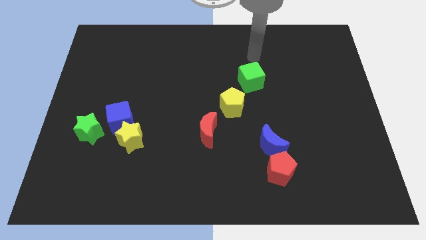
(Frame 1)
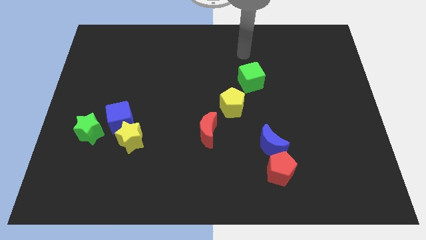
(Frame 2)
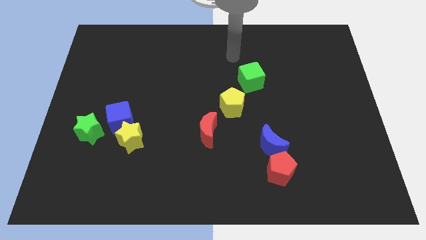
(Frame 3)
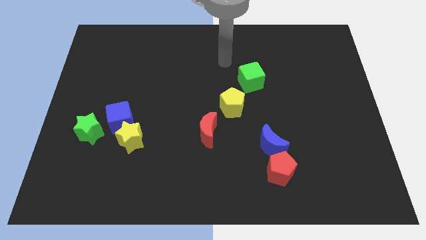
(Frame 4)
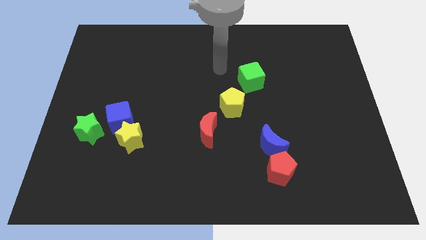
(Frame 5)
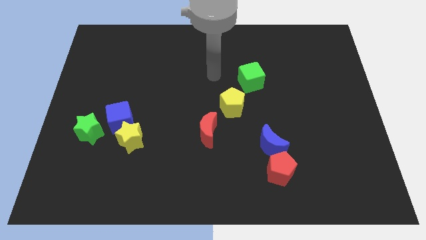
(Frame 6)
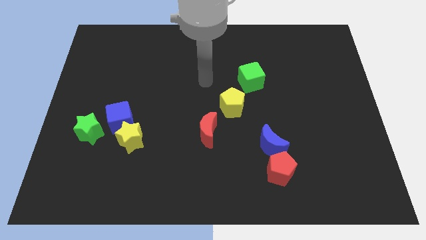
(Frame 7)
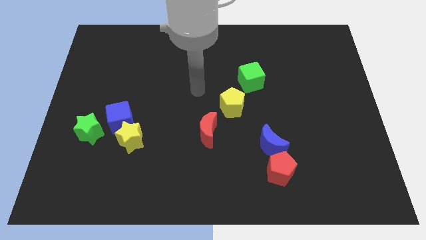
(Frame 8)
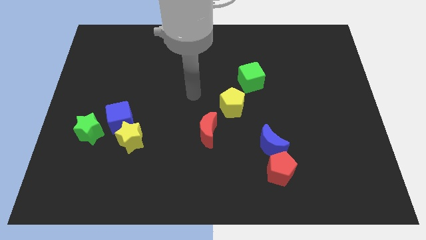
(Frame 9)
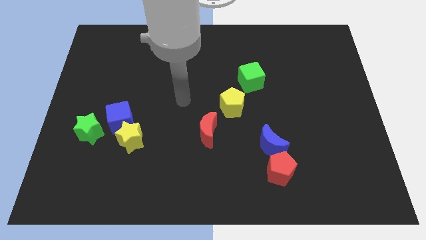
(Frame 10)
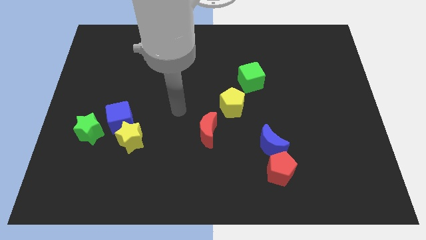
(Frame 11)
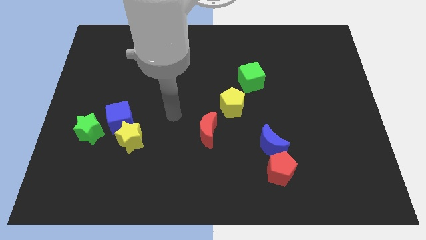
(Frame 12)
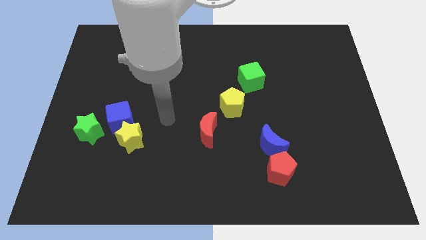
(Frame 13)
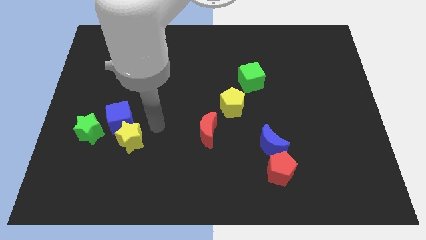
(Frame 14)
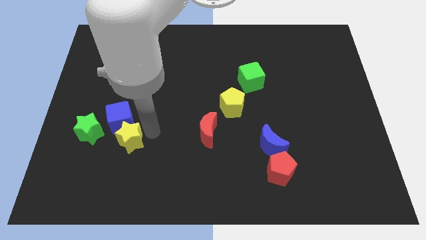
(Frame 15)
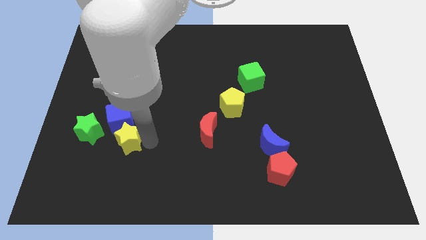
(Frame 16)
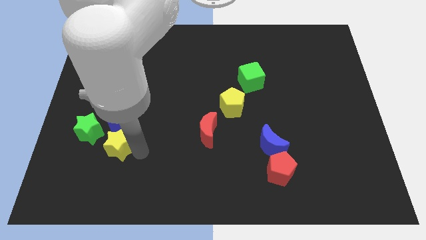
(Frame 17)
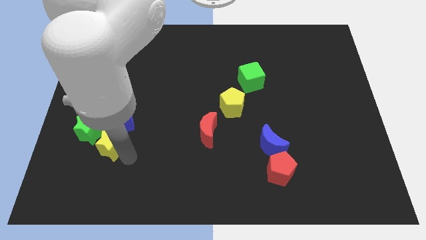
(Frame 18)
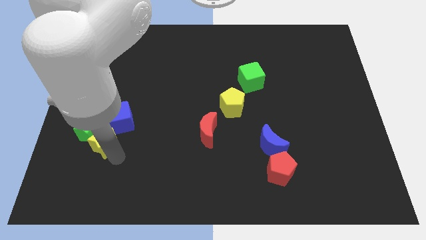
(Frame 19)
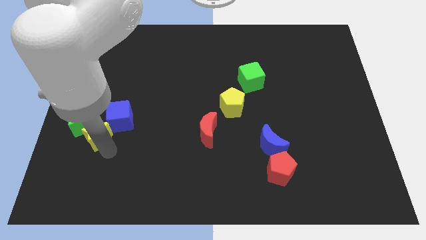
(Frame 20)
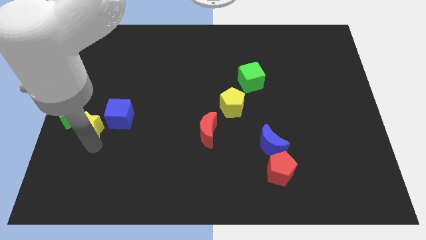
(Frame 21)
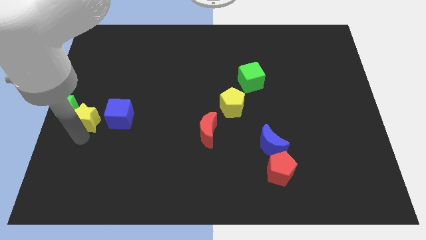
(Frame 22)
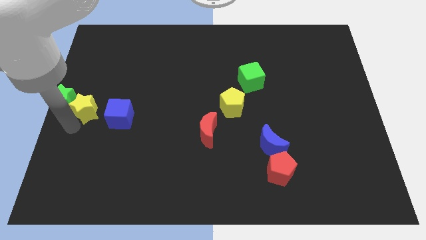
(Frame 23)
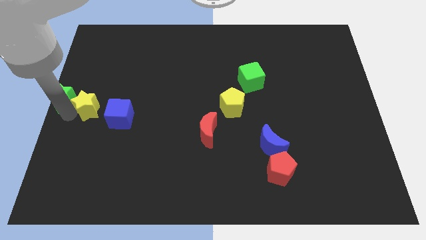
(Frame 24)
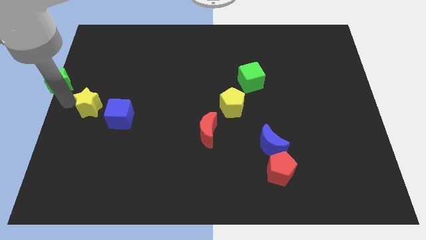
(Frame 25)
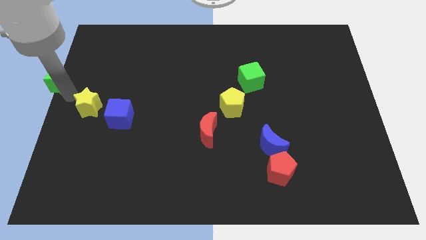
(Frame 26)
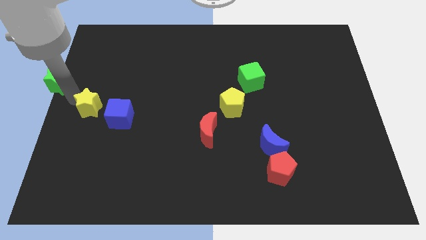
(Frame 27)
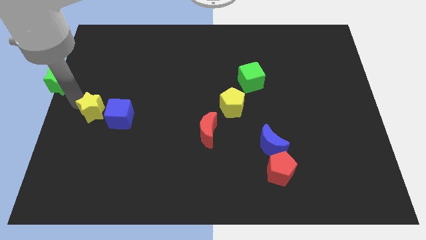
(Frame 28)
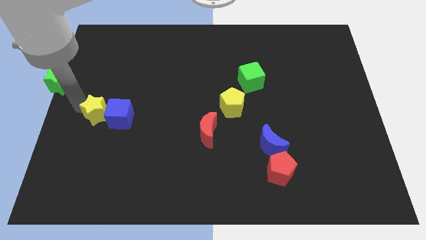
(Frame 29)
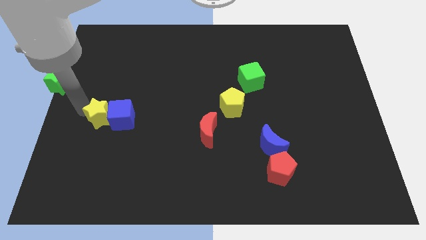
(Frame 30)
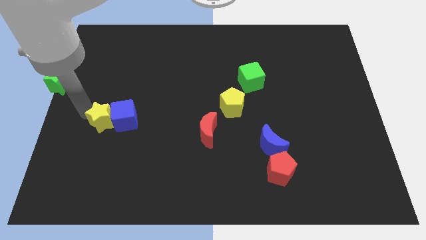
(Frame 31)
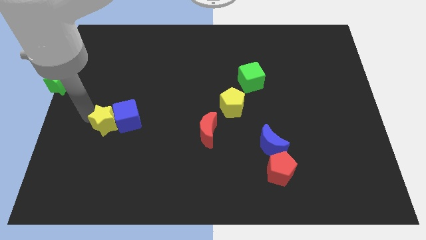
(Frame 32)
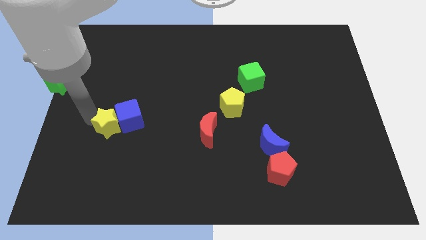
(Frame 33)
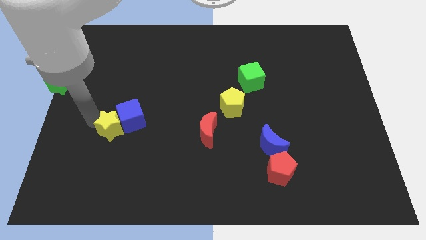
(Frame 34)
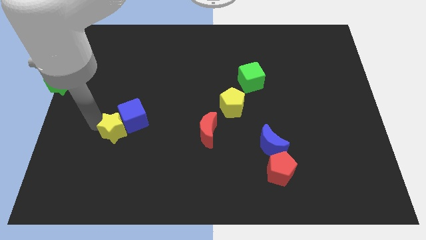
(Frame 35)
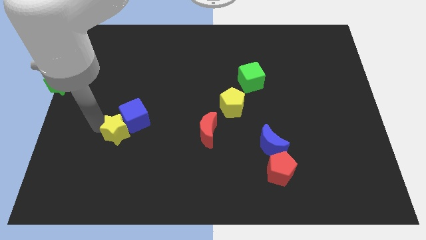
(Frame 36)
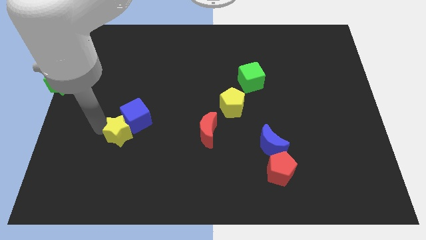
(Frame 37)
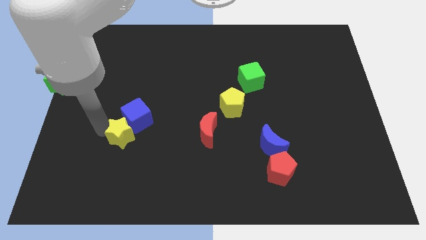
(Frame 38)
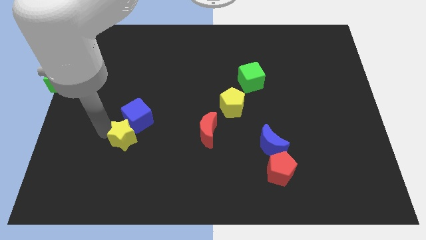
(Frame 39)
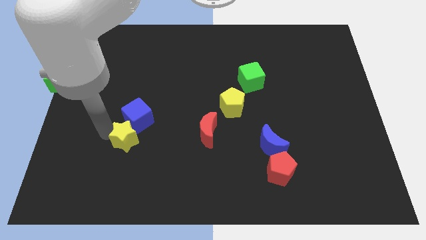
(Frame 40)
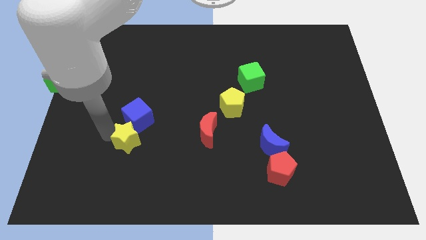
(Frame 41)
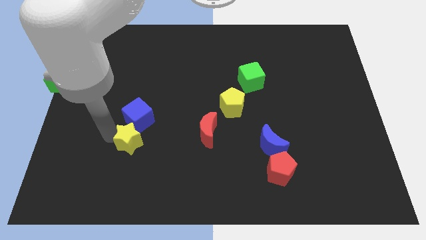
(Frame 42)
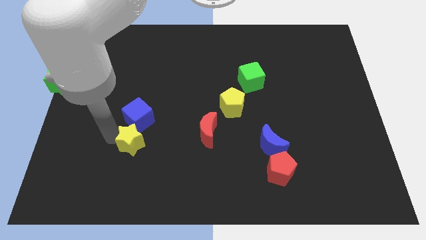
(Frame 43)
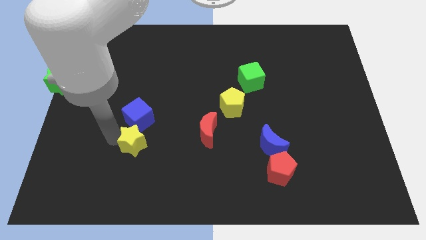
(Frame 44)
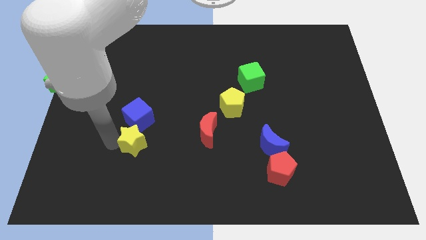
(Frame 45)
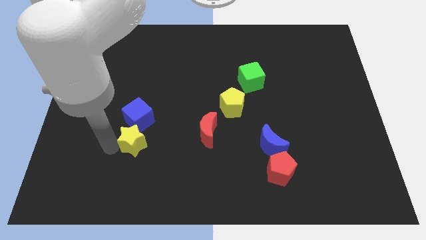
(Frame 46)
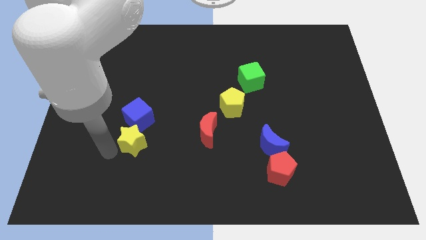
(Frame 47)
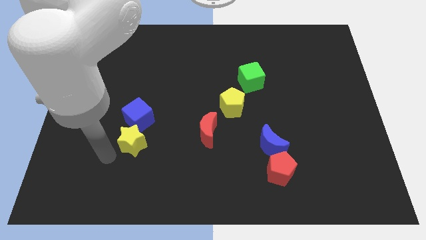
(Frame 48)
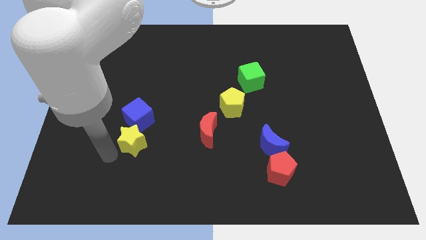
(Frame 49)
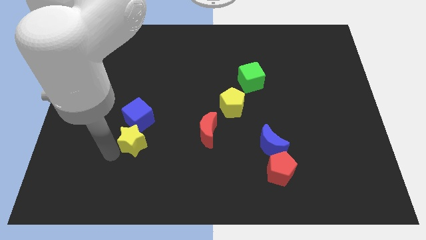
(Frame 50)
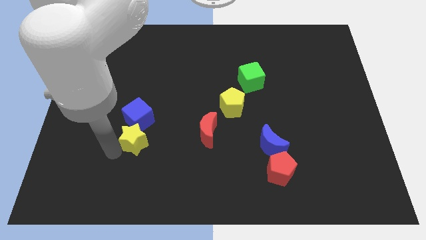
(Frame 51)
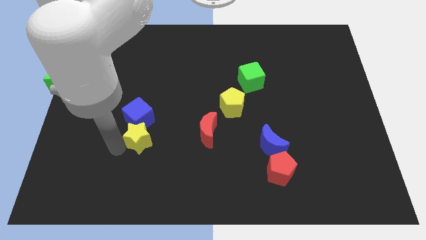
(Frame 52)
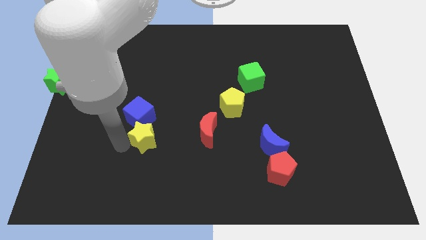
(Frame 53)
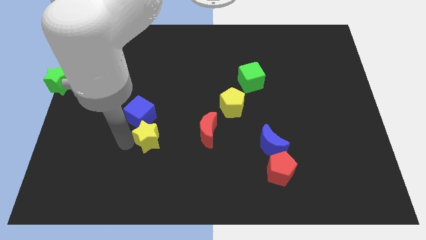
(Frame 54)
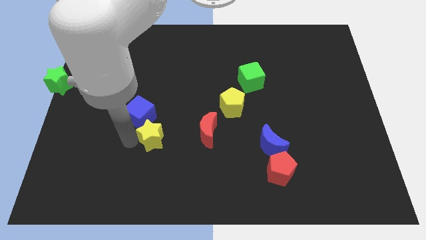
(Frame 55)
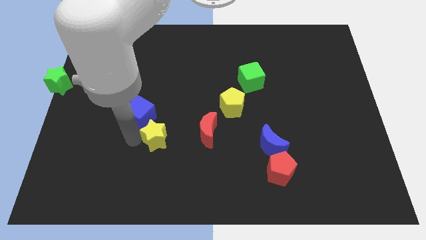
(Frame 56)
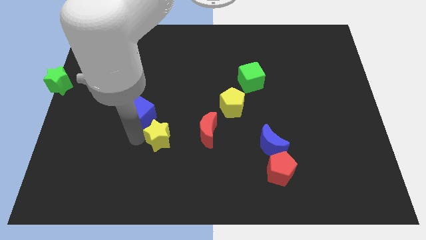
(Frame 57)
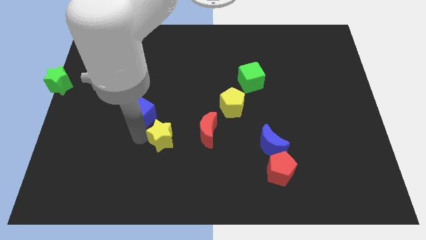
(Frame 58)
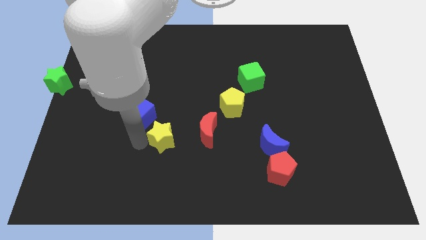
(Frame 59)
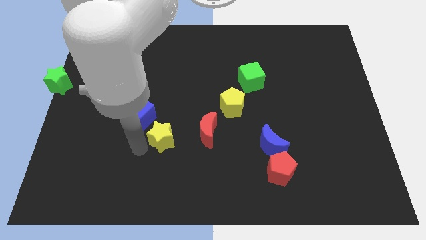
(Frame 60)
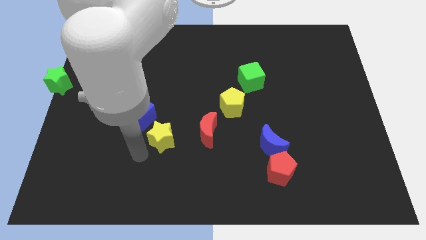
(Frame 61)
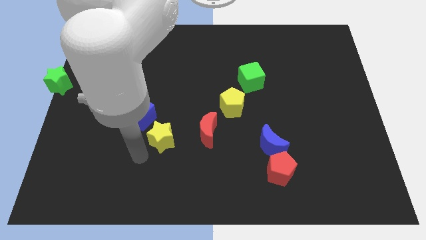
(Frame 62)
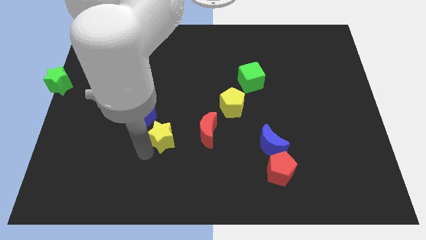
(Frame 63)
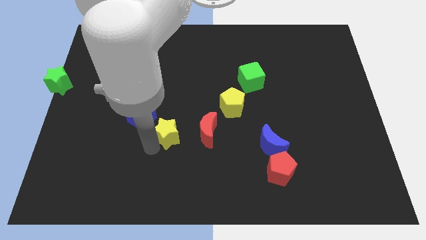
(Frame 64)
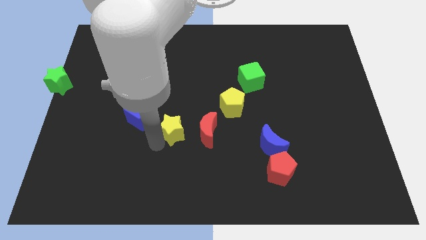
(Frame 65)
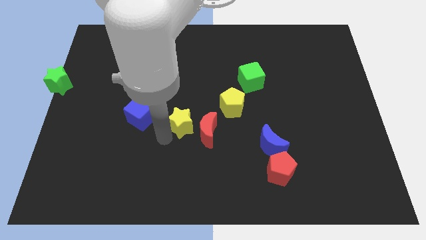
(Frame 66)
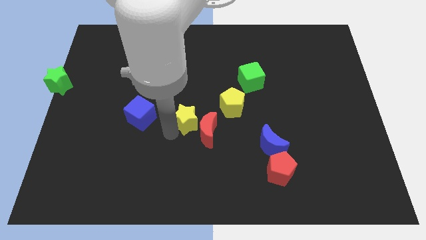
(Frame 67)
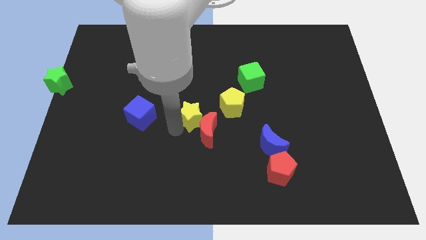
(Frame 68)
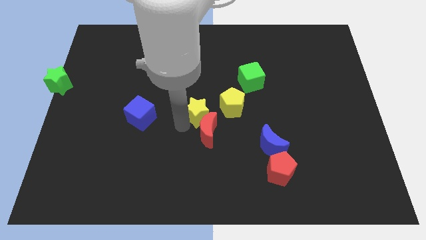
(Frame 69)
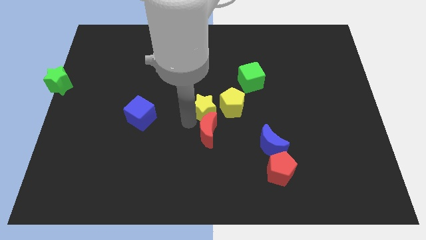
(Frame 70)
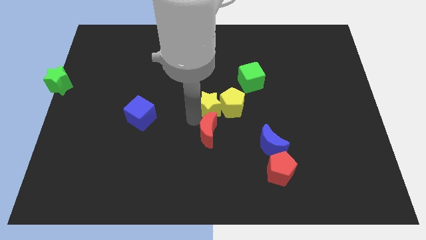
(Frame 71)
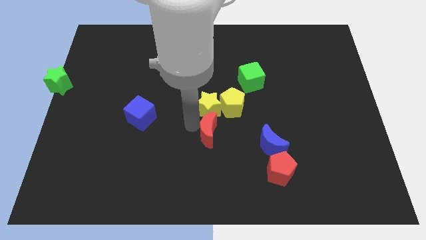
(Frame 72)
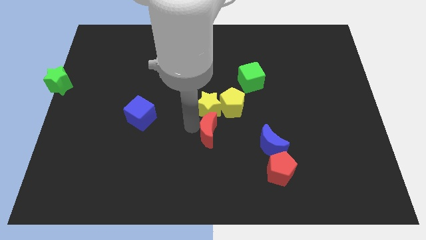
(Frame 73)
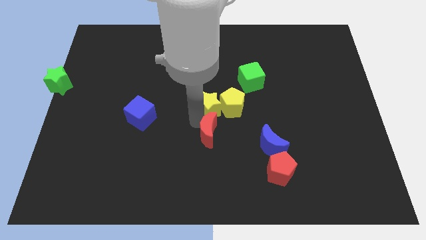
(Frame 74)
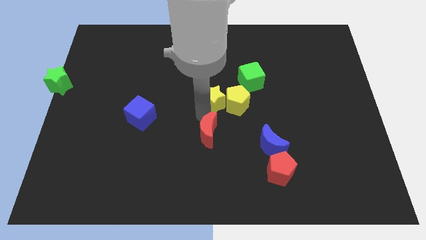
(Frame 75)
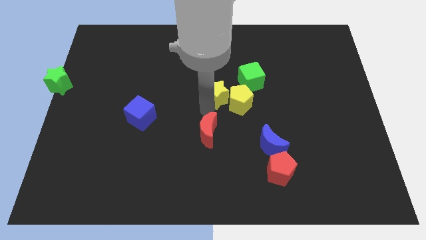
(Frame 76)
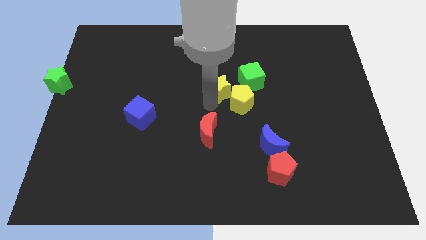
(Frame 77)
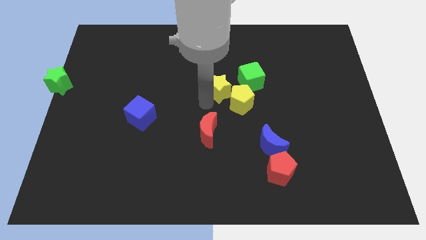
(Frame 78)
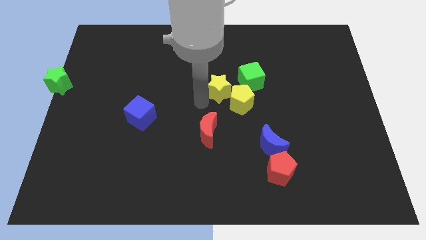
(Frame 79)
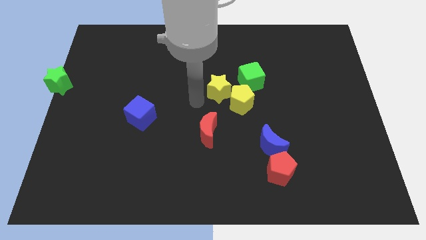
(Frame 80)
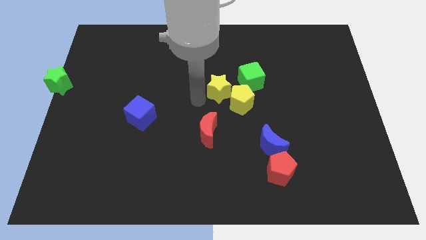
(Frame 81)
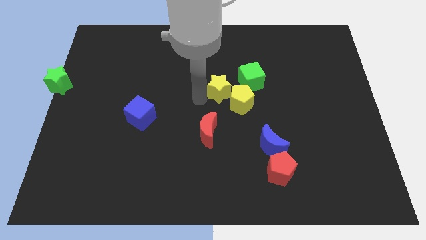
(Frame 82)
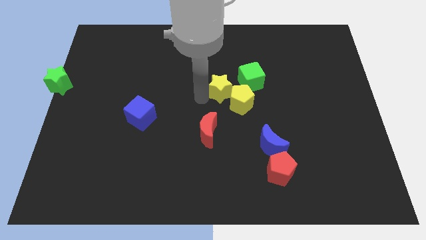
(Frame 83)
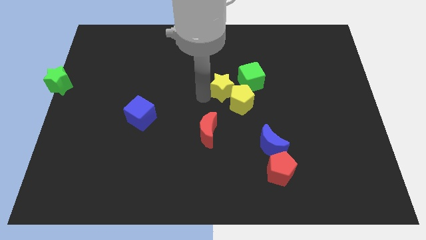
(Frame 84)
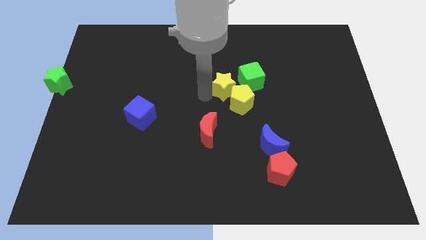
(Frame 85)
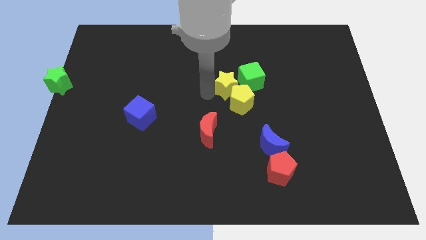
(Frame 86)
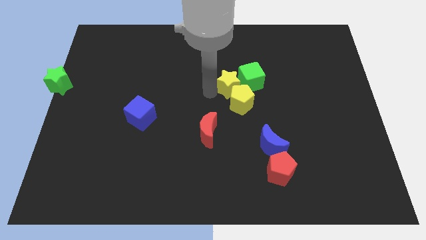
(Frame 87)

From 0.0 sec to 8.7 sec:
move the yellow star to the green cube
